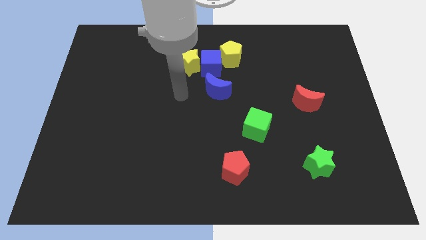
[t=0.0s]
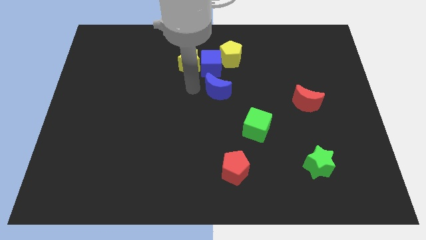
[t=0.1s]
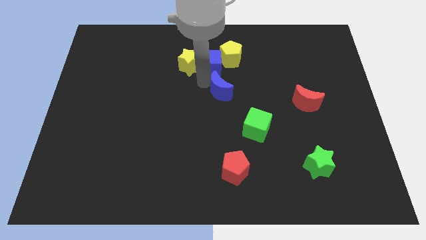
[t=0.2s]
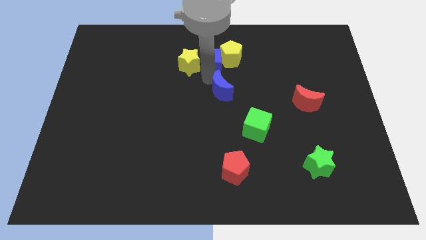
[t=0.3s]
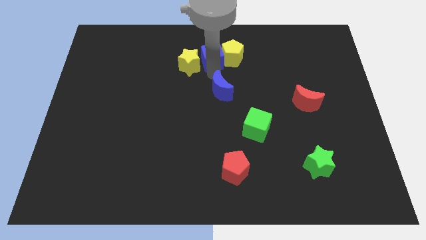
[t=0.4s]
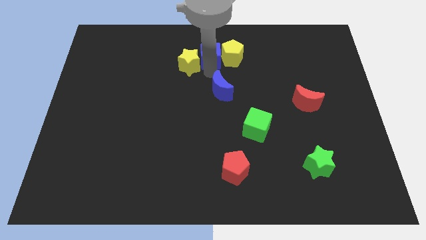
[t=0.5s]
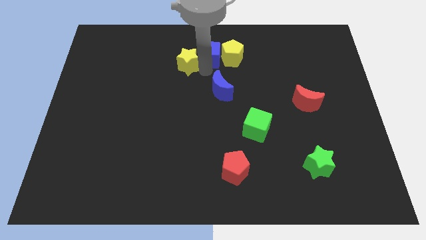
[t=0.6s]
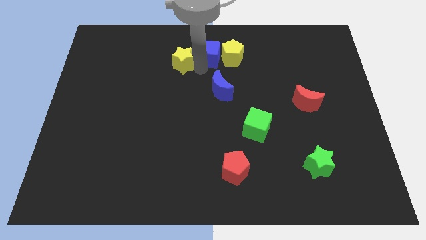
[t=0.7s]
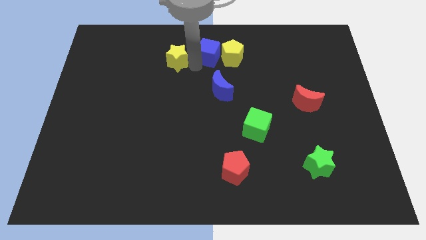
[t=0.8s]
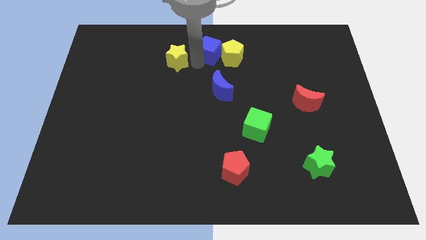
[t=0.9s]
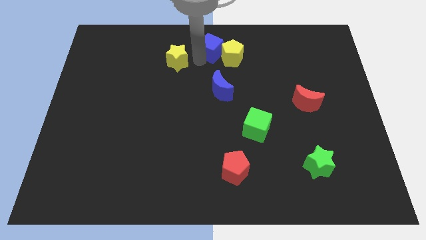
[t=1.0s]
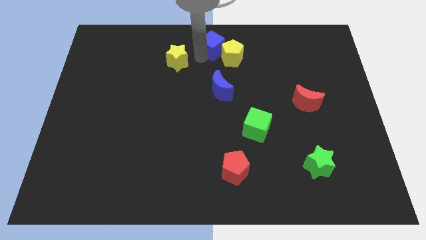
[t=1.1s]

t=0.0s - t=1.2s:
pull the yellow star apart from the blue cube

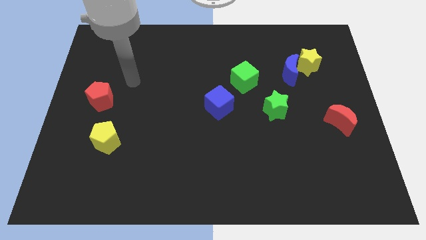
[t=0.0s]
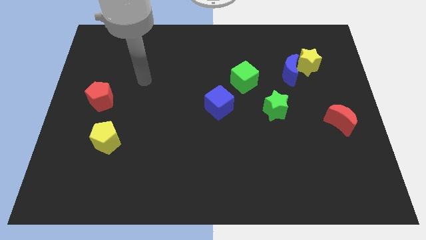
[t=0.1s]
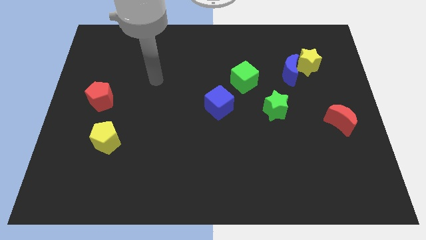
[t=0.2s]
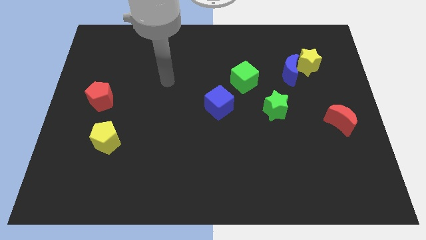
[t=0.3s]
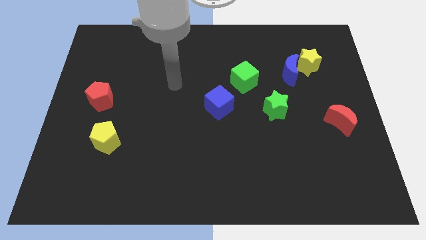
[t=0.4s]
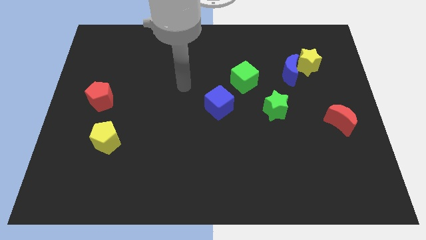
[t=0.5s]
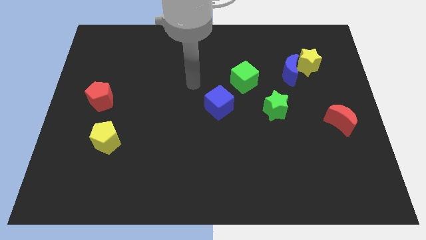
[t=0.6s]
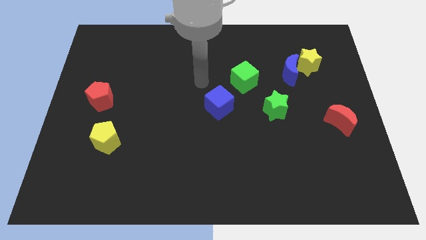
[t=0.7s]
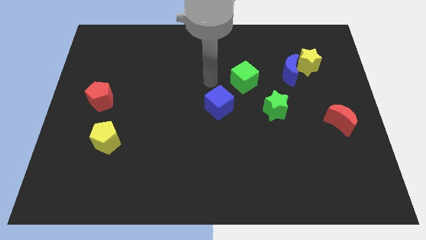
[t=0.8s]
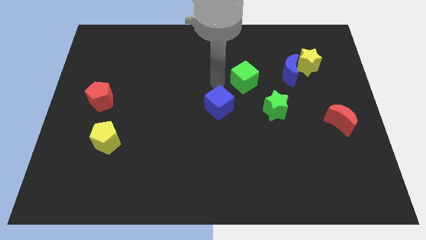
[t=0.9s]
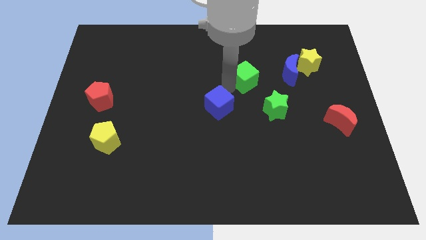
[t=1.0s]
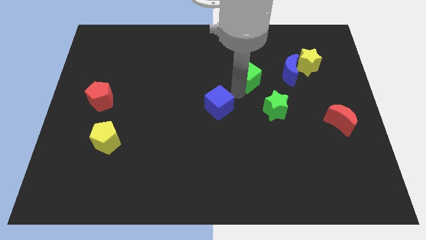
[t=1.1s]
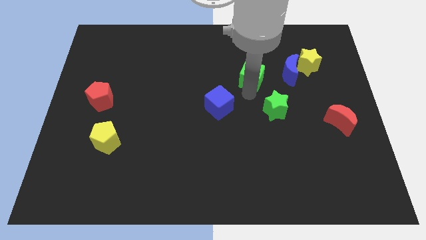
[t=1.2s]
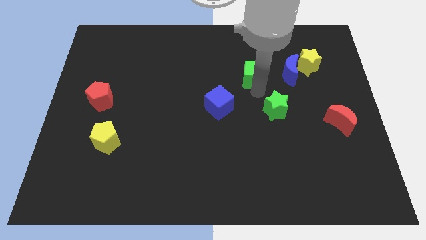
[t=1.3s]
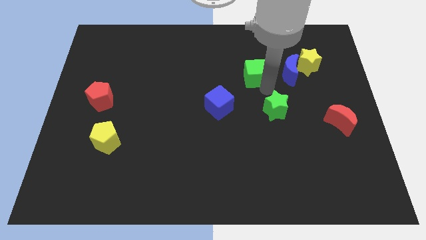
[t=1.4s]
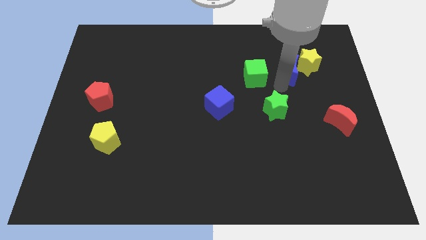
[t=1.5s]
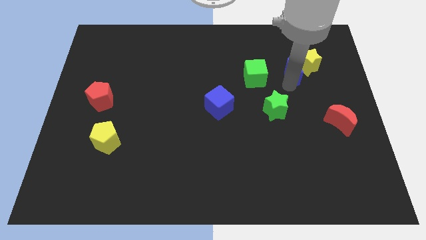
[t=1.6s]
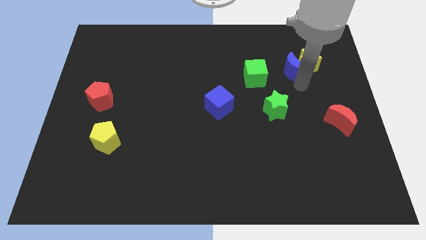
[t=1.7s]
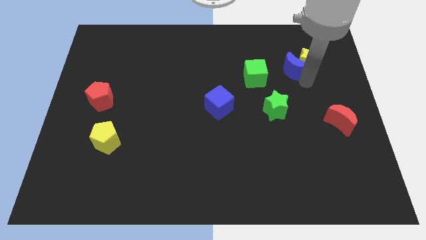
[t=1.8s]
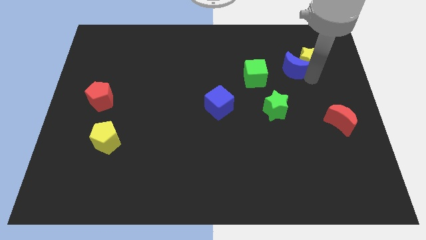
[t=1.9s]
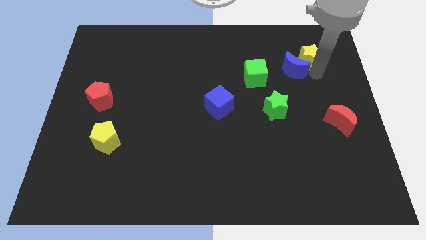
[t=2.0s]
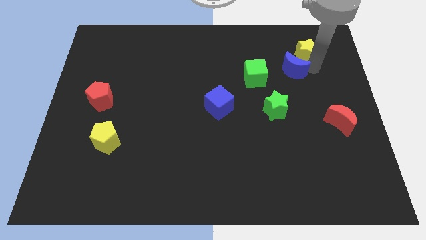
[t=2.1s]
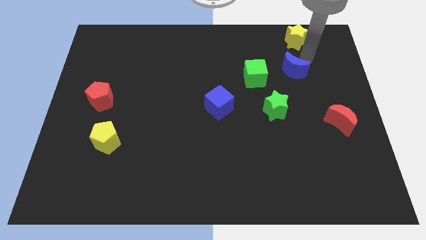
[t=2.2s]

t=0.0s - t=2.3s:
move the blue moon away from the yellow star

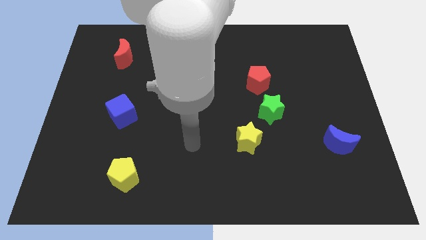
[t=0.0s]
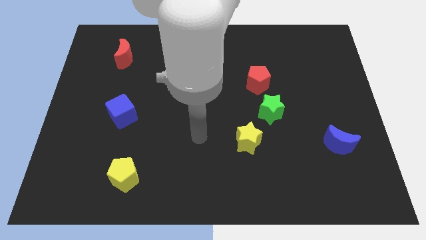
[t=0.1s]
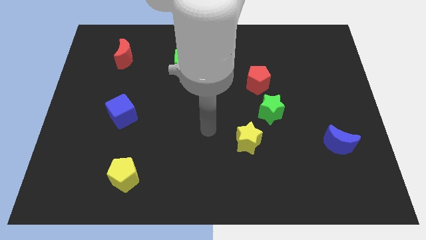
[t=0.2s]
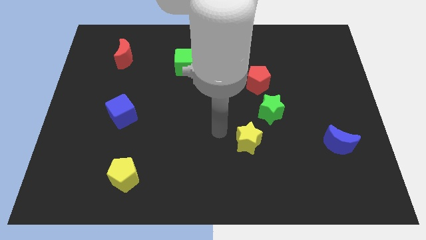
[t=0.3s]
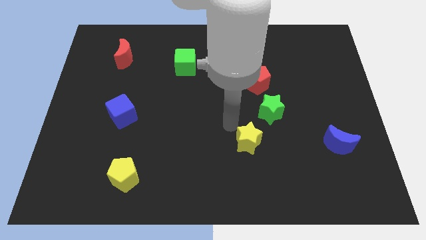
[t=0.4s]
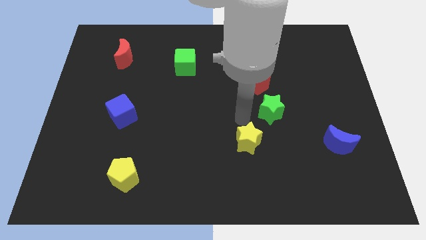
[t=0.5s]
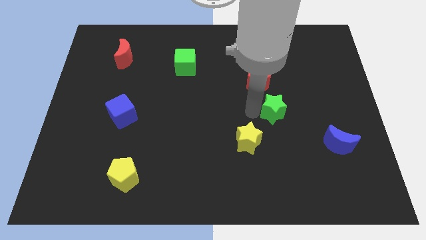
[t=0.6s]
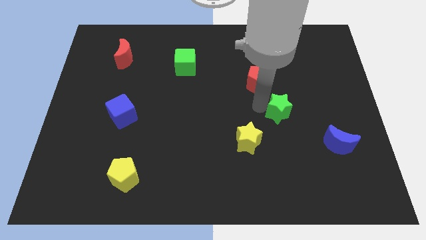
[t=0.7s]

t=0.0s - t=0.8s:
pull the red pentagon apart from the green star

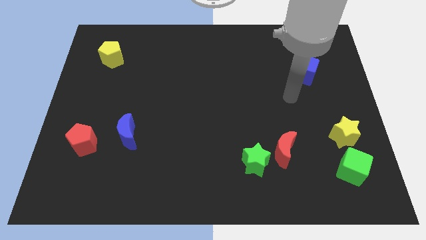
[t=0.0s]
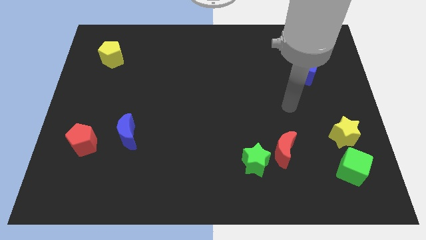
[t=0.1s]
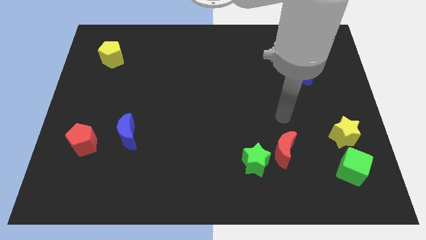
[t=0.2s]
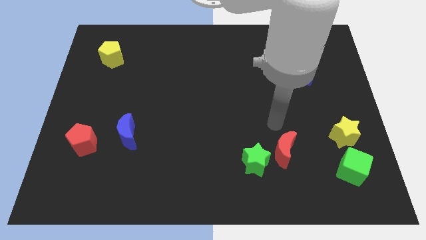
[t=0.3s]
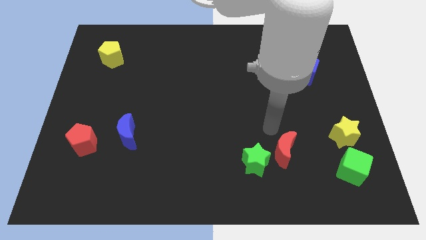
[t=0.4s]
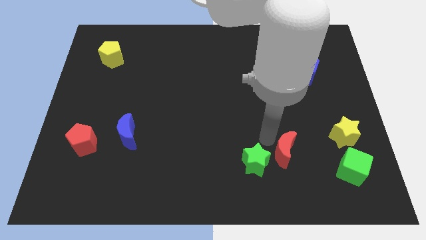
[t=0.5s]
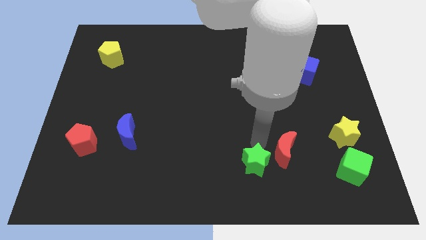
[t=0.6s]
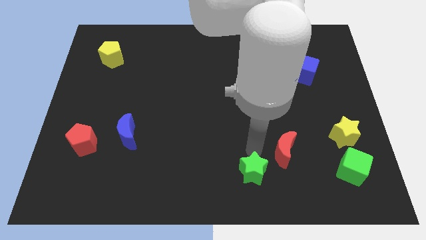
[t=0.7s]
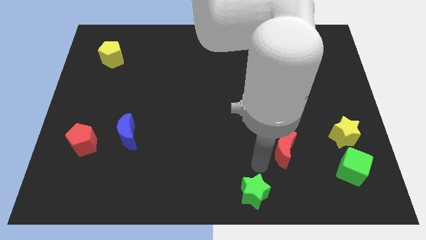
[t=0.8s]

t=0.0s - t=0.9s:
separate the red moon from the green star

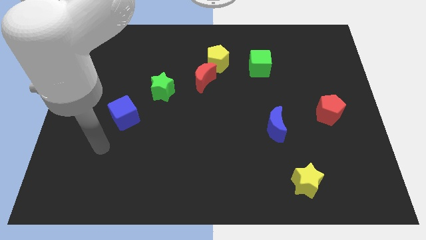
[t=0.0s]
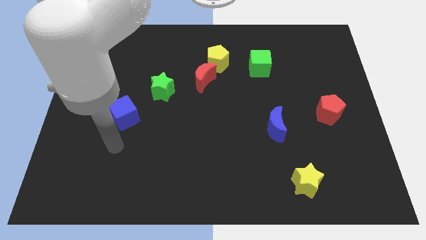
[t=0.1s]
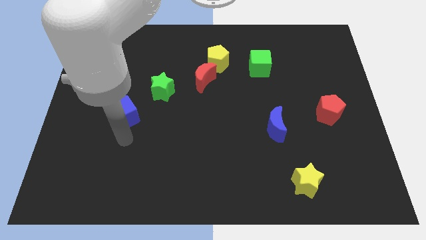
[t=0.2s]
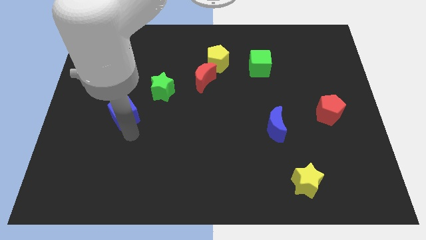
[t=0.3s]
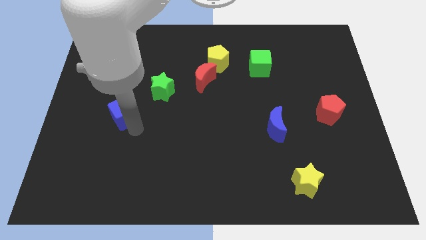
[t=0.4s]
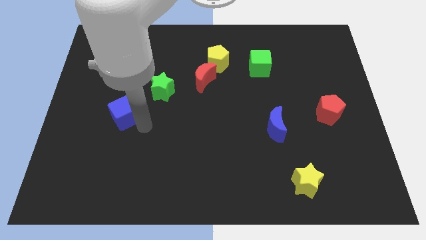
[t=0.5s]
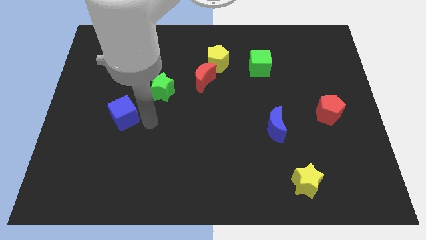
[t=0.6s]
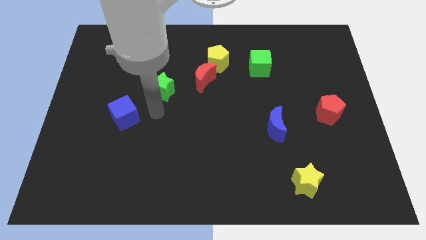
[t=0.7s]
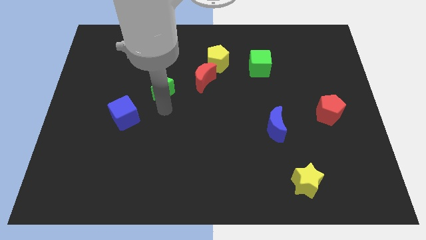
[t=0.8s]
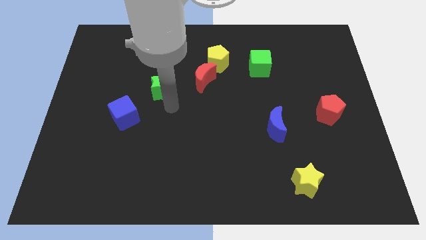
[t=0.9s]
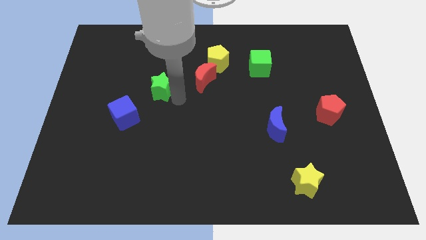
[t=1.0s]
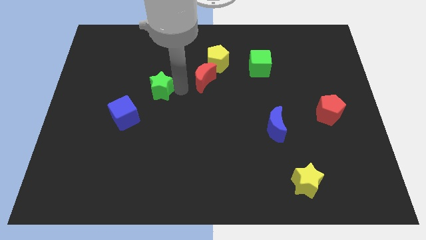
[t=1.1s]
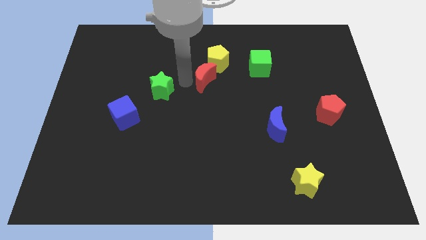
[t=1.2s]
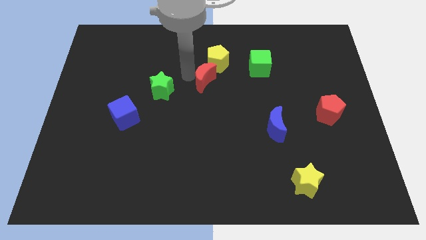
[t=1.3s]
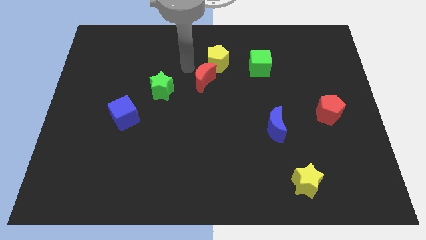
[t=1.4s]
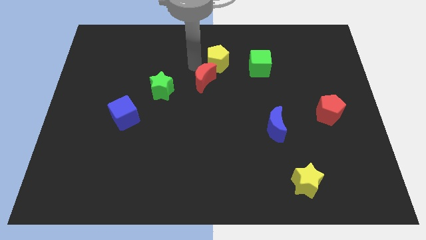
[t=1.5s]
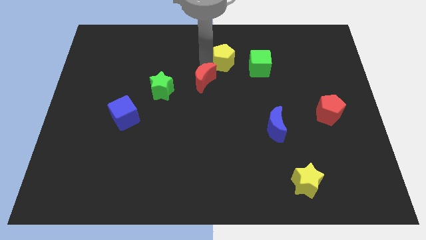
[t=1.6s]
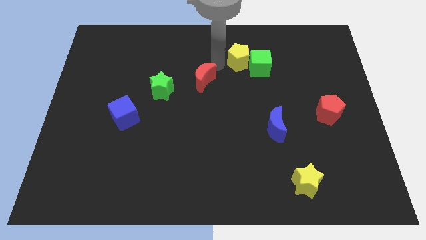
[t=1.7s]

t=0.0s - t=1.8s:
separate the red moon from the yellow pentagon

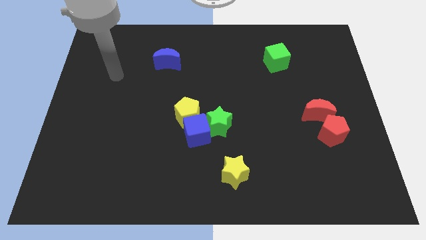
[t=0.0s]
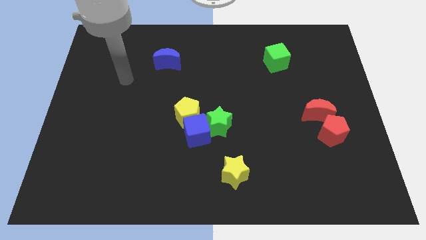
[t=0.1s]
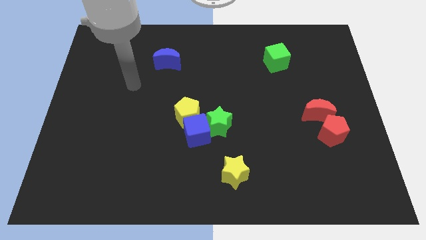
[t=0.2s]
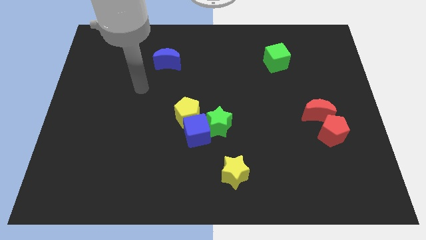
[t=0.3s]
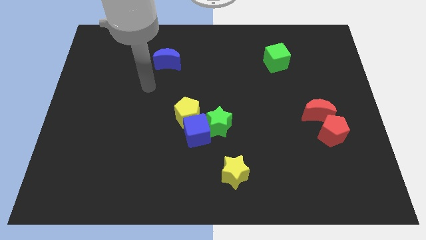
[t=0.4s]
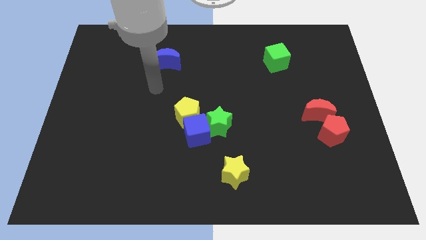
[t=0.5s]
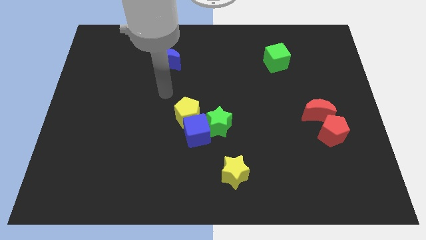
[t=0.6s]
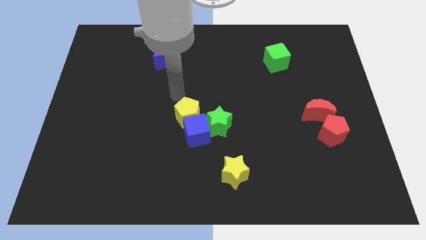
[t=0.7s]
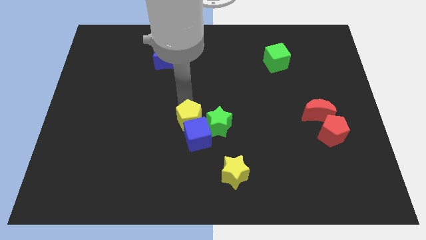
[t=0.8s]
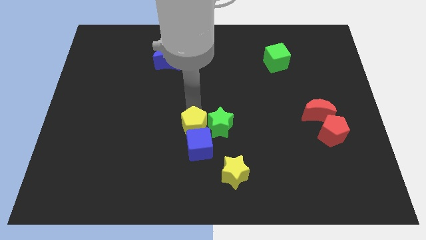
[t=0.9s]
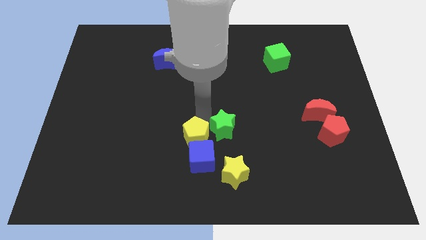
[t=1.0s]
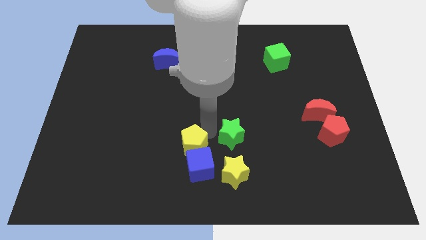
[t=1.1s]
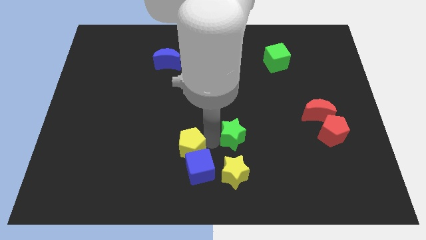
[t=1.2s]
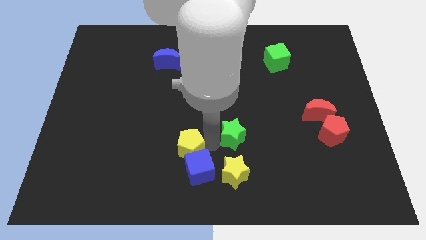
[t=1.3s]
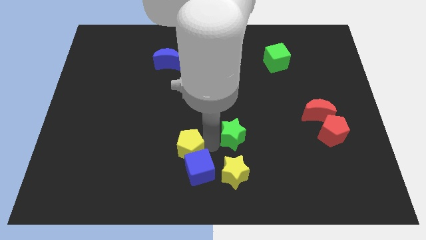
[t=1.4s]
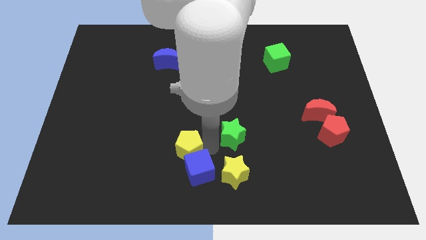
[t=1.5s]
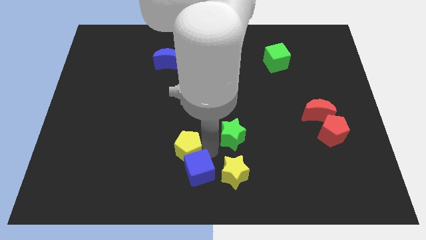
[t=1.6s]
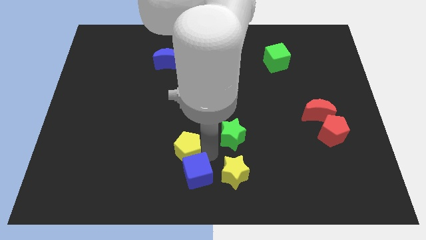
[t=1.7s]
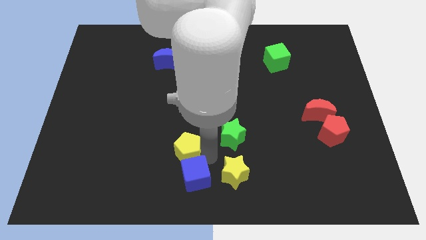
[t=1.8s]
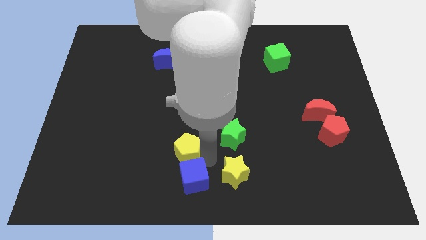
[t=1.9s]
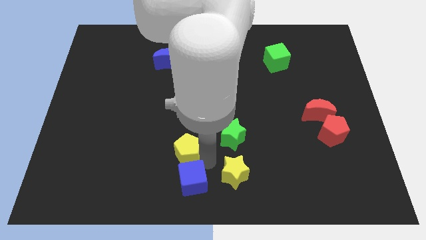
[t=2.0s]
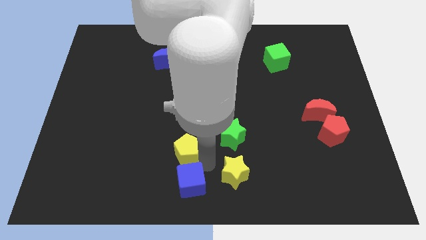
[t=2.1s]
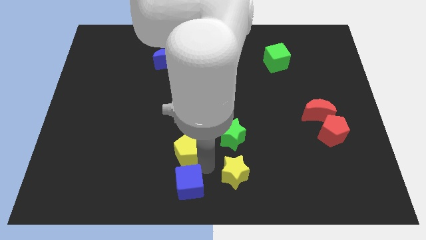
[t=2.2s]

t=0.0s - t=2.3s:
move the blue cube away from the green star and yellow pentagon
